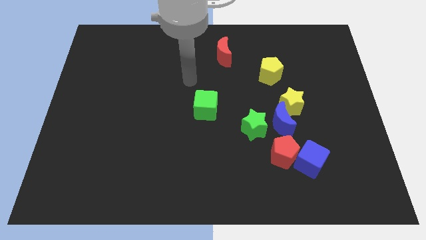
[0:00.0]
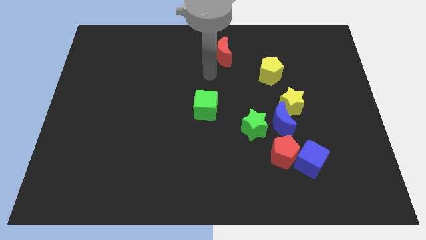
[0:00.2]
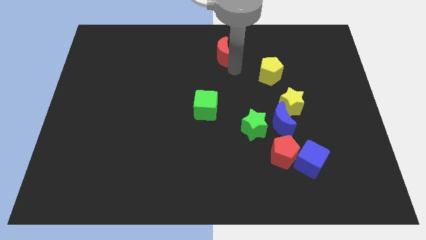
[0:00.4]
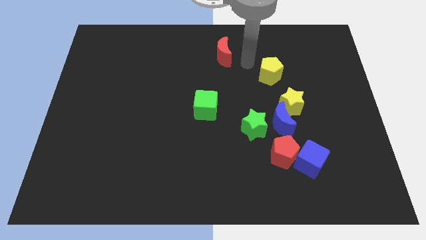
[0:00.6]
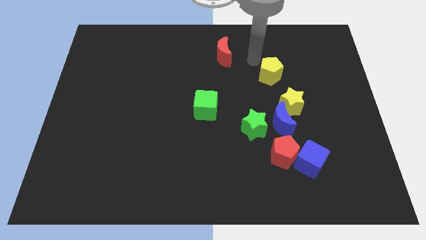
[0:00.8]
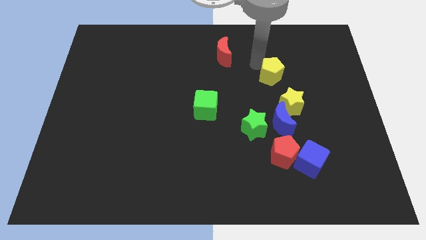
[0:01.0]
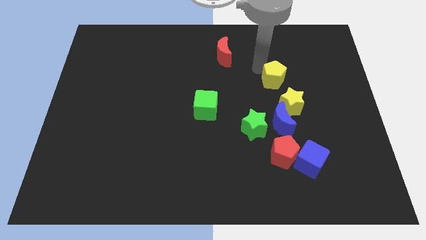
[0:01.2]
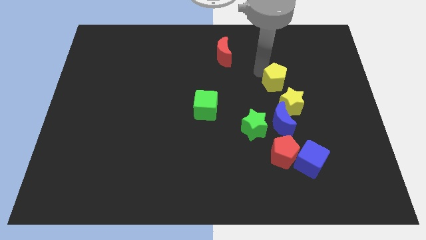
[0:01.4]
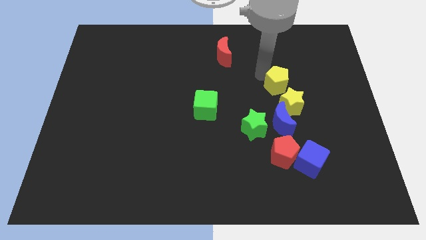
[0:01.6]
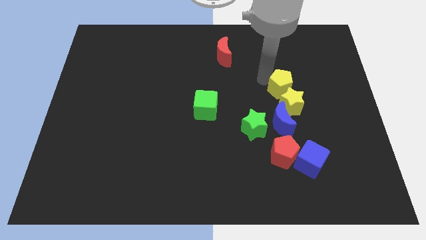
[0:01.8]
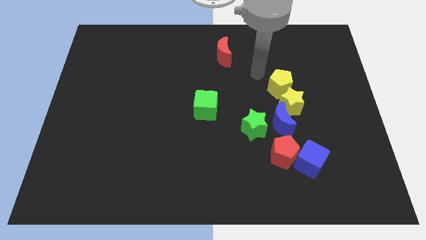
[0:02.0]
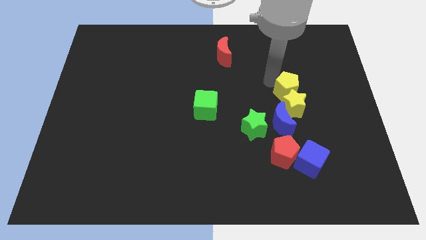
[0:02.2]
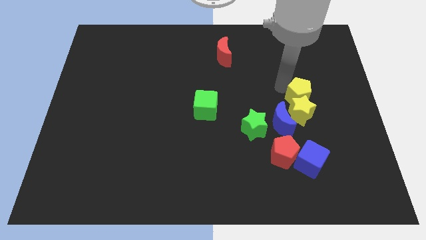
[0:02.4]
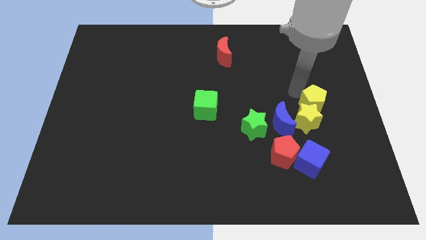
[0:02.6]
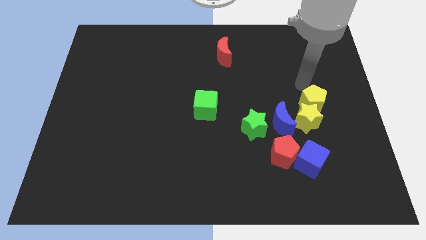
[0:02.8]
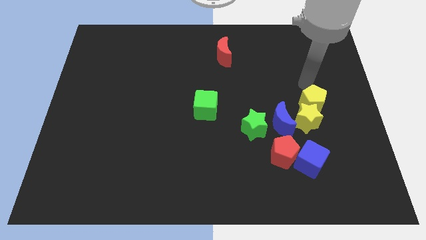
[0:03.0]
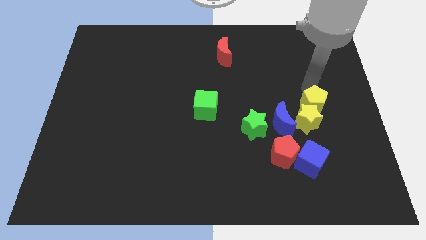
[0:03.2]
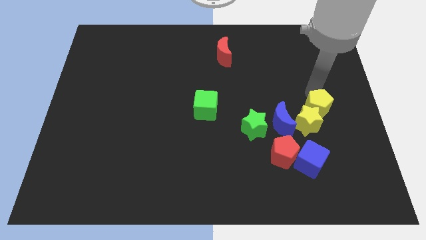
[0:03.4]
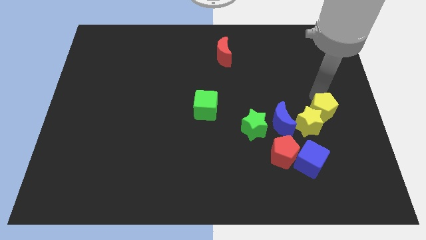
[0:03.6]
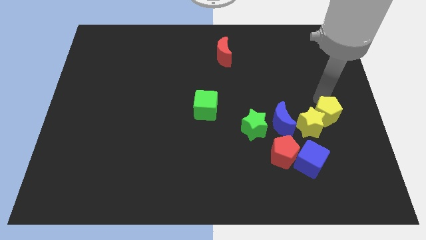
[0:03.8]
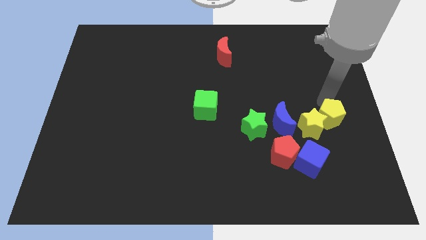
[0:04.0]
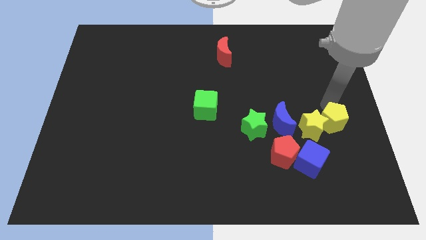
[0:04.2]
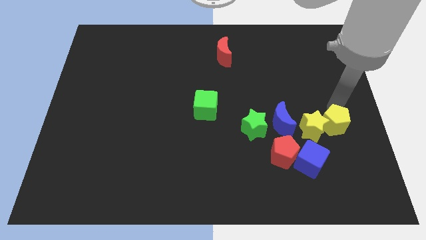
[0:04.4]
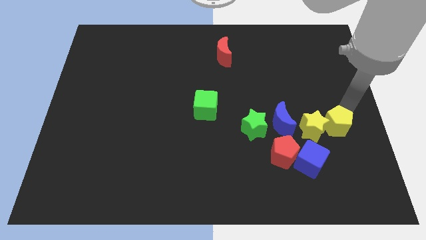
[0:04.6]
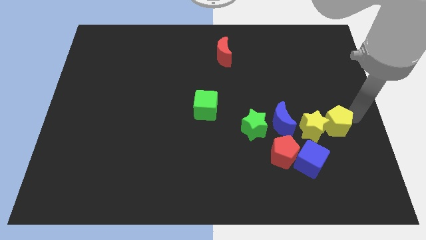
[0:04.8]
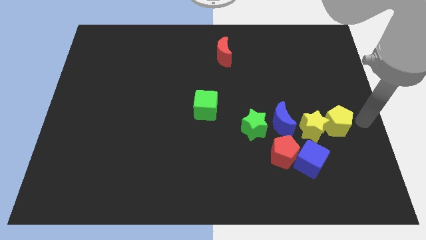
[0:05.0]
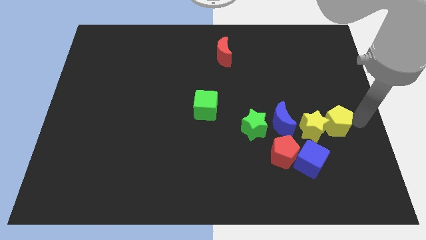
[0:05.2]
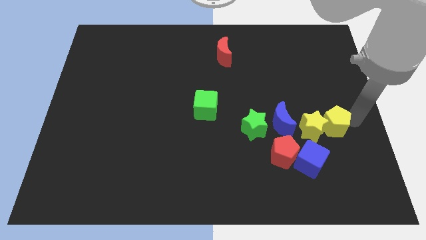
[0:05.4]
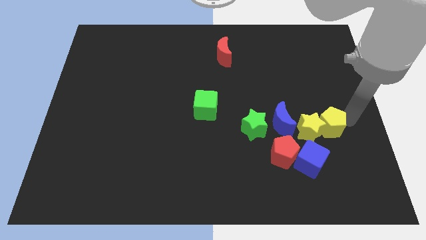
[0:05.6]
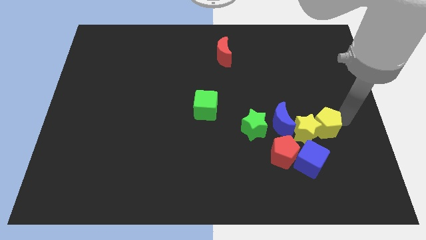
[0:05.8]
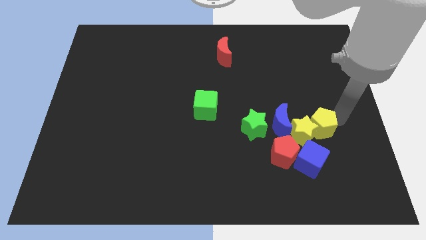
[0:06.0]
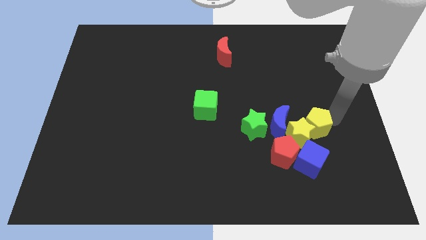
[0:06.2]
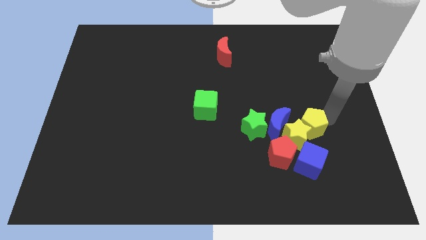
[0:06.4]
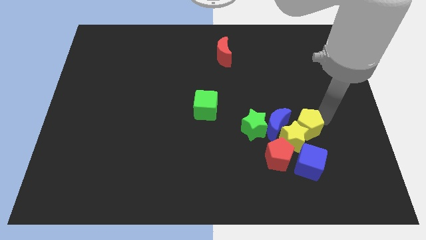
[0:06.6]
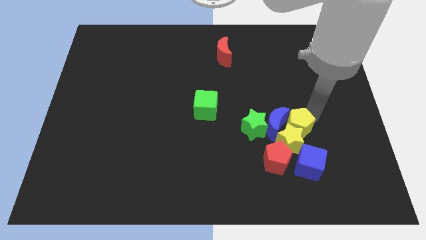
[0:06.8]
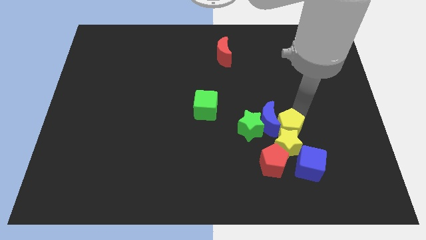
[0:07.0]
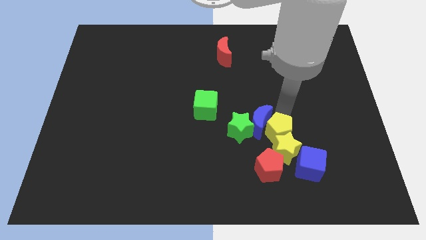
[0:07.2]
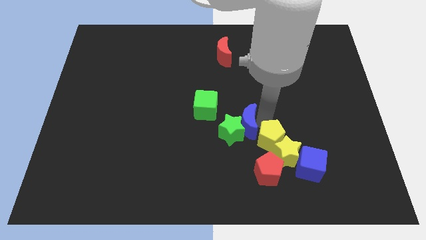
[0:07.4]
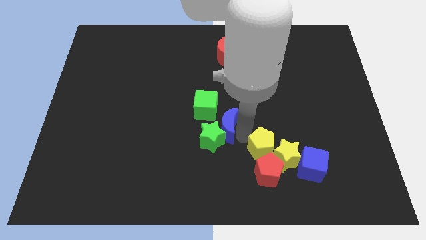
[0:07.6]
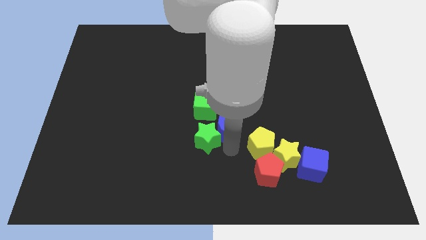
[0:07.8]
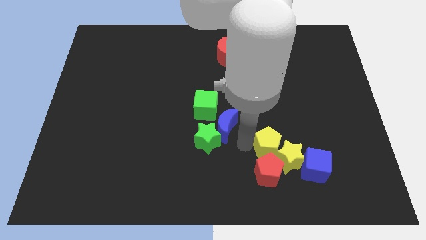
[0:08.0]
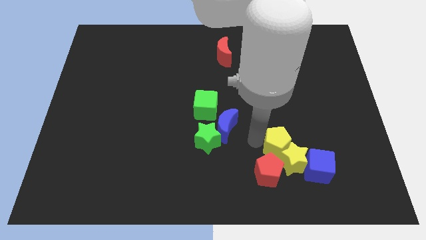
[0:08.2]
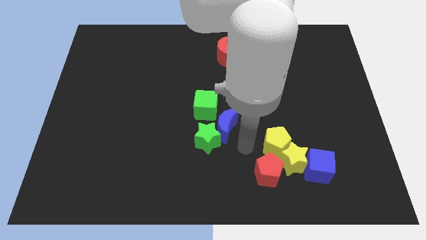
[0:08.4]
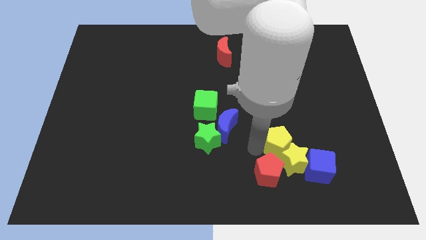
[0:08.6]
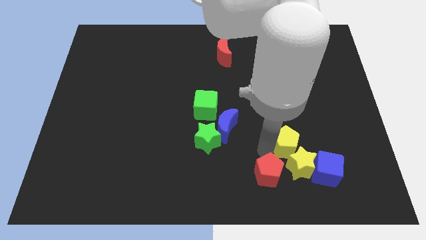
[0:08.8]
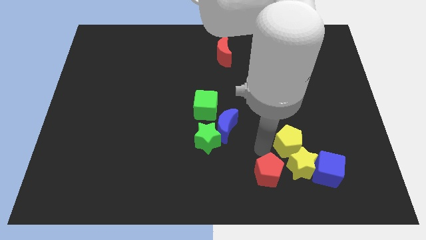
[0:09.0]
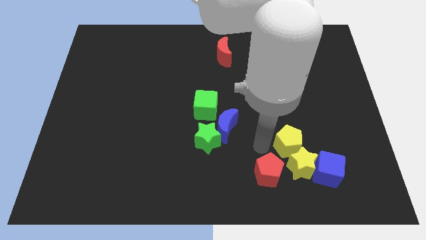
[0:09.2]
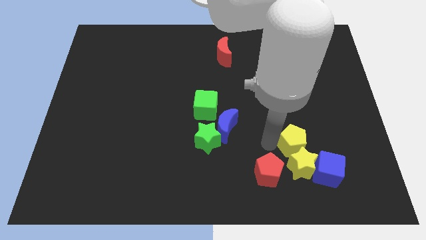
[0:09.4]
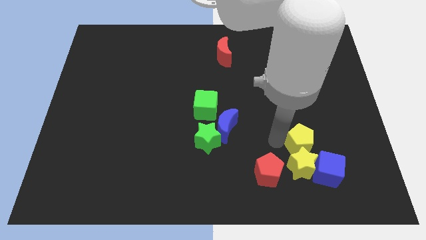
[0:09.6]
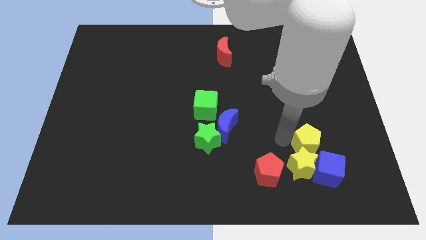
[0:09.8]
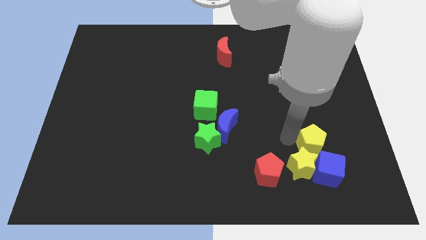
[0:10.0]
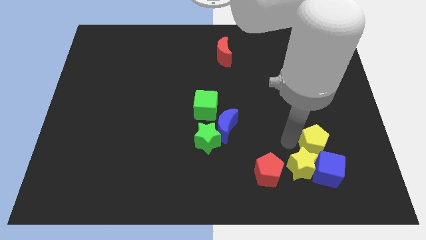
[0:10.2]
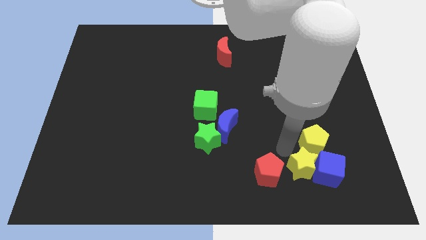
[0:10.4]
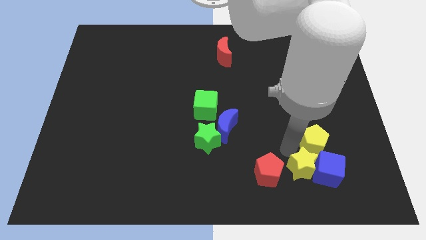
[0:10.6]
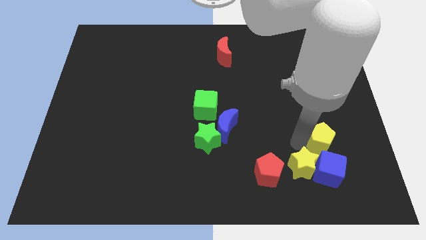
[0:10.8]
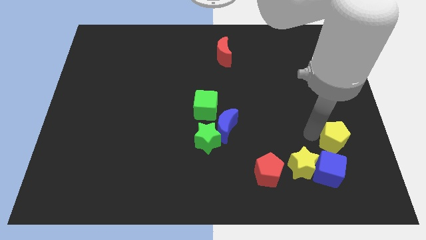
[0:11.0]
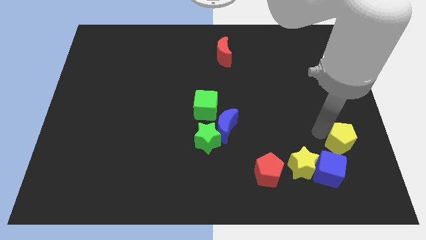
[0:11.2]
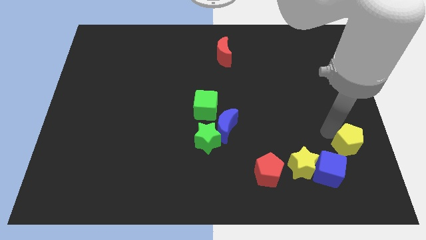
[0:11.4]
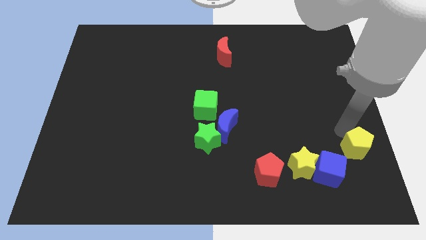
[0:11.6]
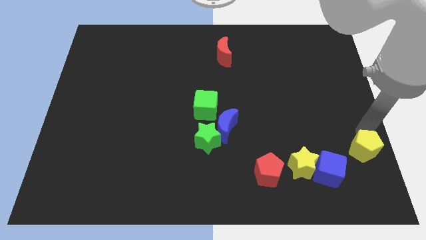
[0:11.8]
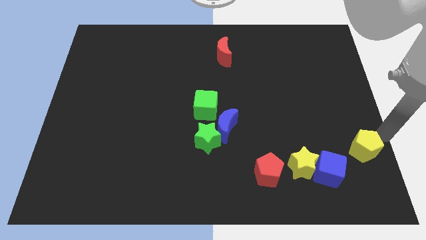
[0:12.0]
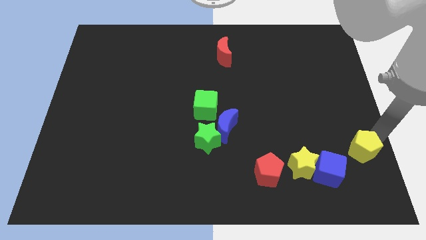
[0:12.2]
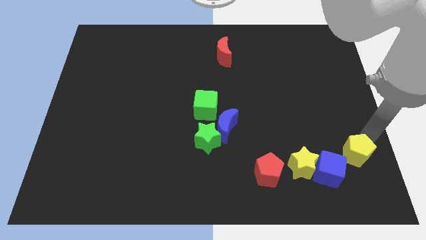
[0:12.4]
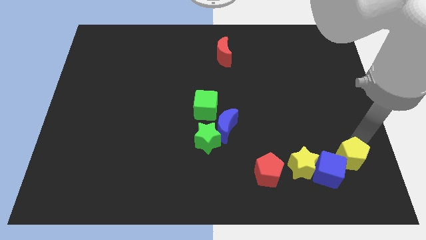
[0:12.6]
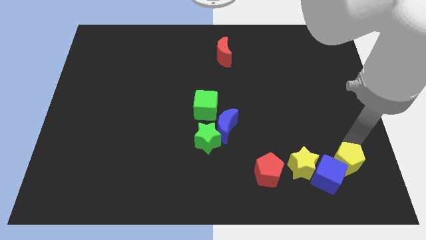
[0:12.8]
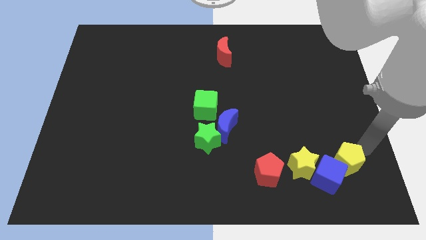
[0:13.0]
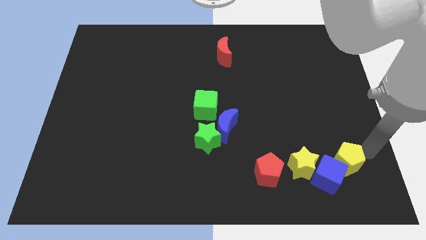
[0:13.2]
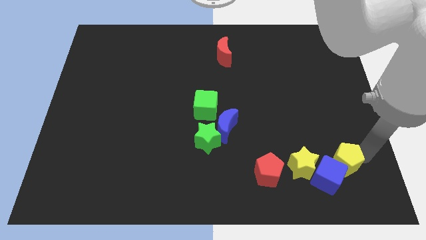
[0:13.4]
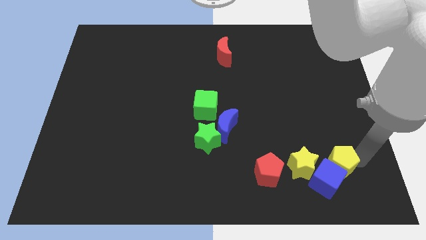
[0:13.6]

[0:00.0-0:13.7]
push the yellow pentagon to the right of the red pentagon

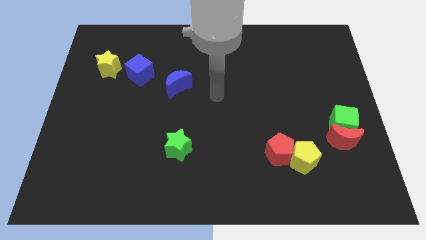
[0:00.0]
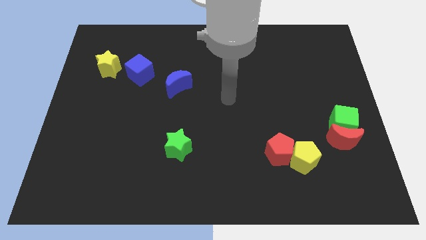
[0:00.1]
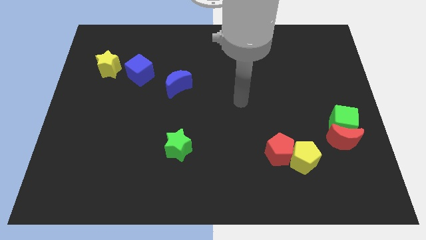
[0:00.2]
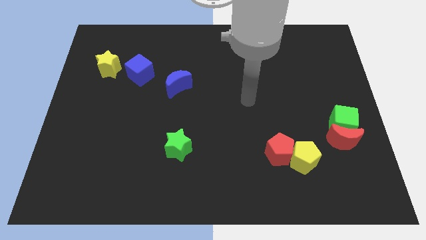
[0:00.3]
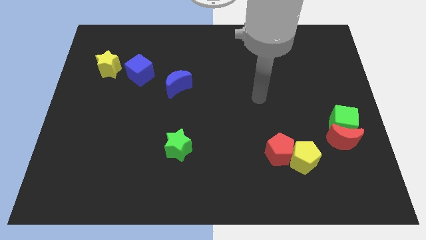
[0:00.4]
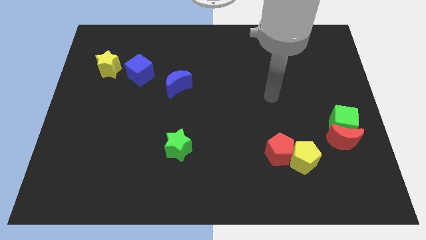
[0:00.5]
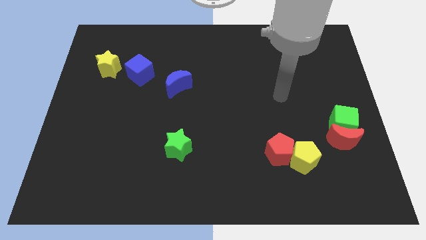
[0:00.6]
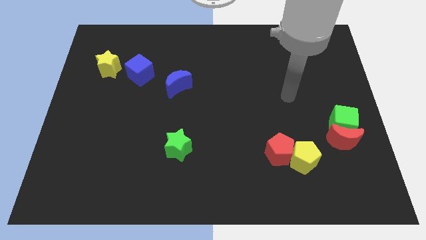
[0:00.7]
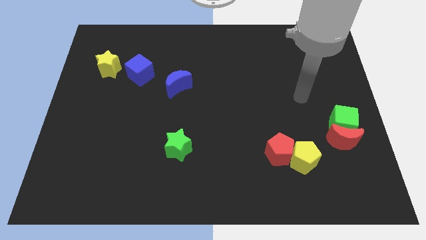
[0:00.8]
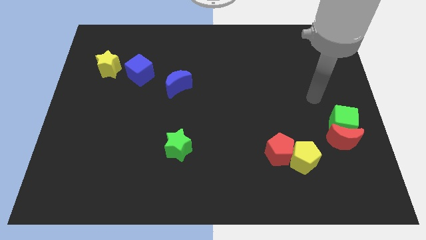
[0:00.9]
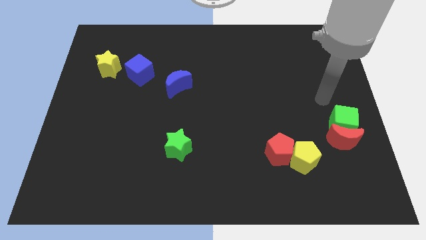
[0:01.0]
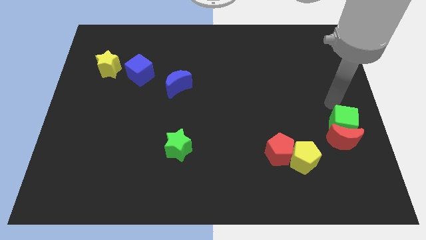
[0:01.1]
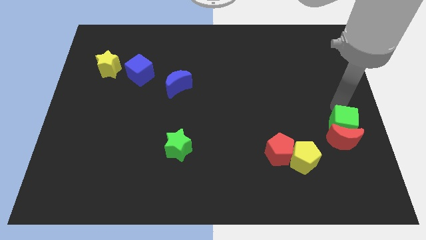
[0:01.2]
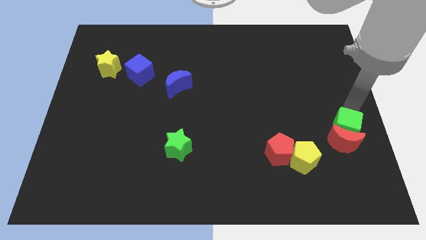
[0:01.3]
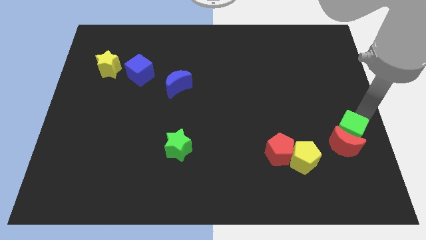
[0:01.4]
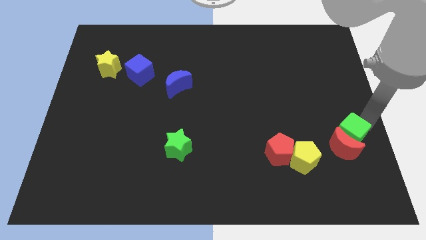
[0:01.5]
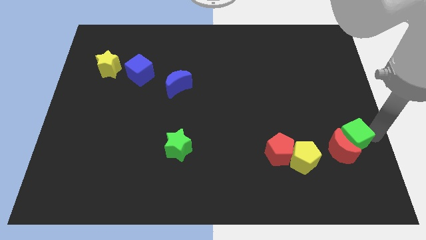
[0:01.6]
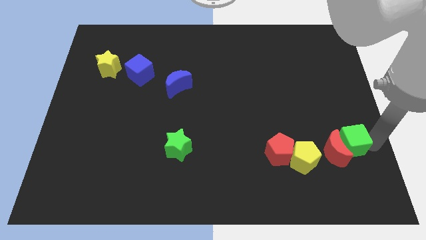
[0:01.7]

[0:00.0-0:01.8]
put the red moon to the top left of the green cube
